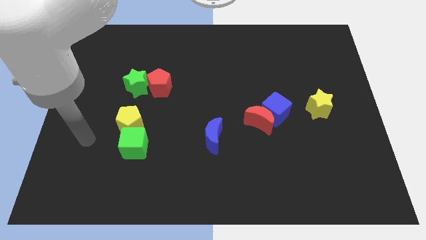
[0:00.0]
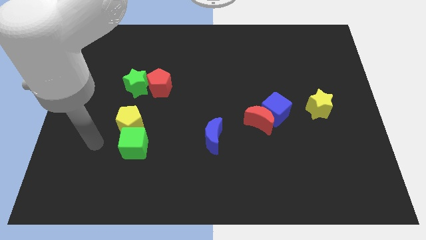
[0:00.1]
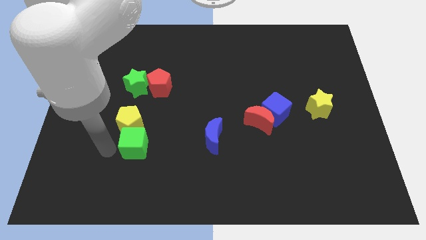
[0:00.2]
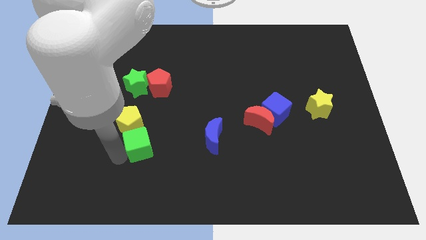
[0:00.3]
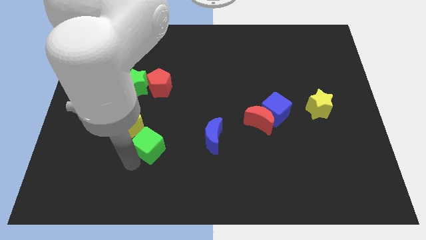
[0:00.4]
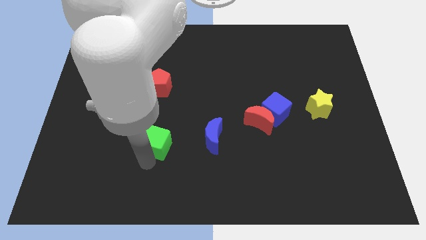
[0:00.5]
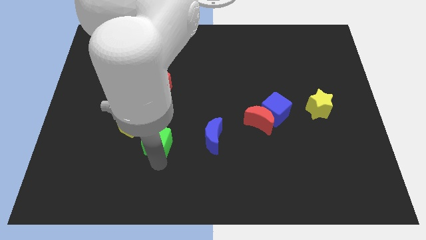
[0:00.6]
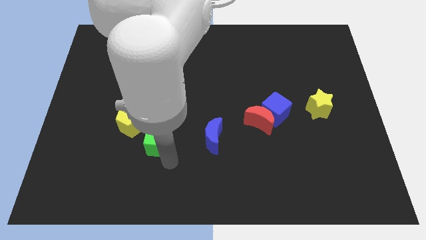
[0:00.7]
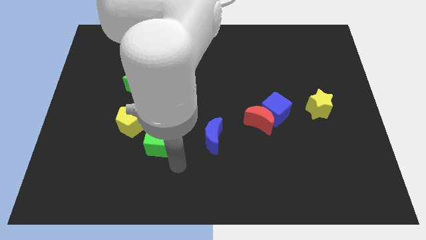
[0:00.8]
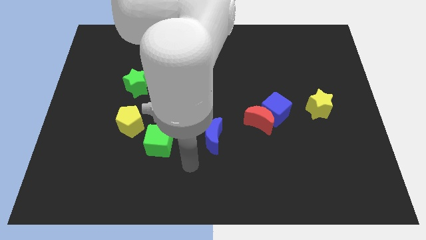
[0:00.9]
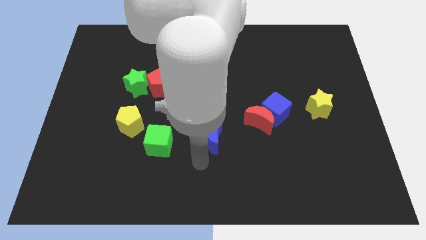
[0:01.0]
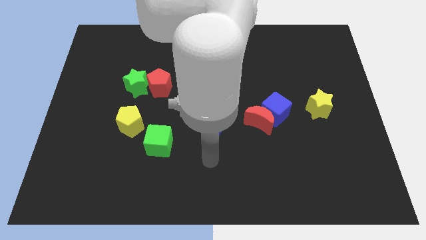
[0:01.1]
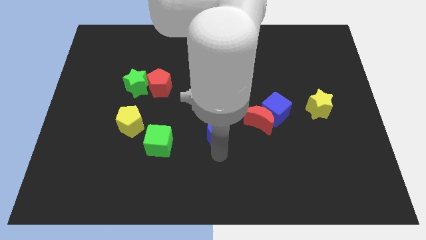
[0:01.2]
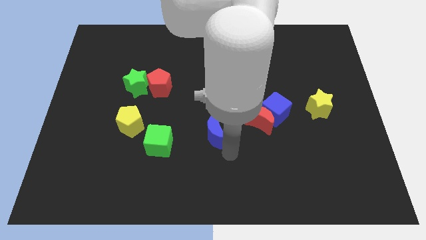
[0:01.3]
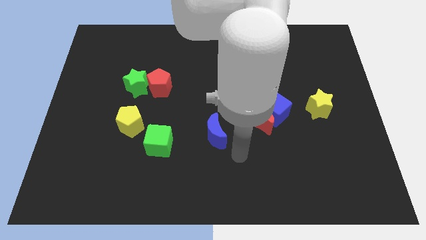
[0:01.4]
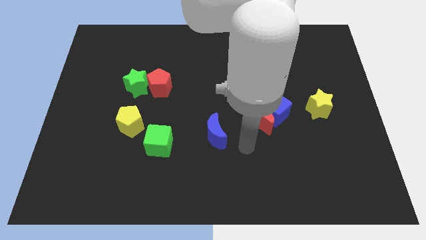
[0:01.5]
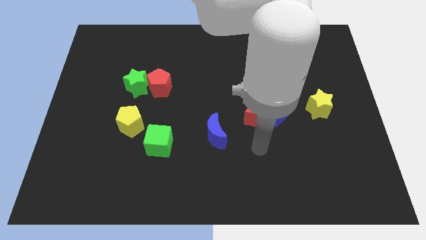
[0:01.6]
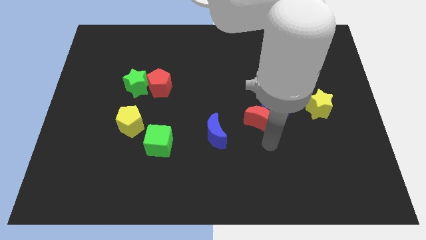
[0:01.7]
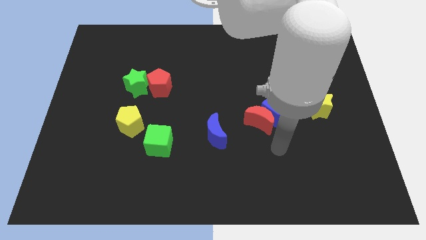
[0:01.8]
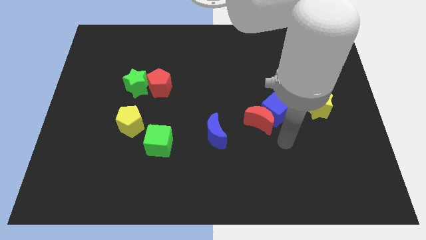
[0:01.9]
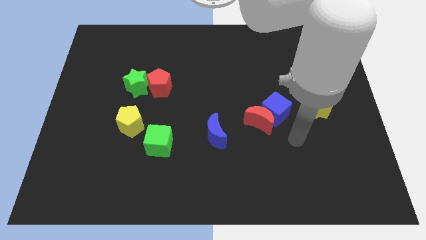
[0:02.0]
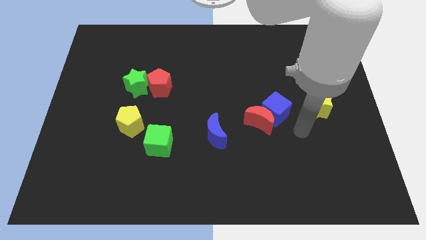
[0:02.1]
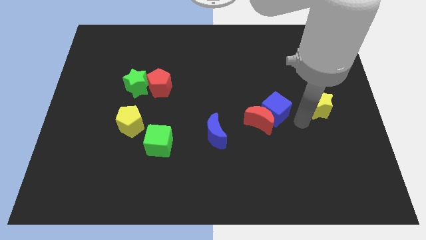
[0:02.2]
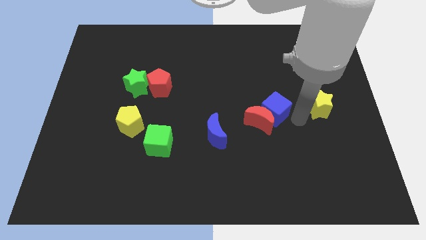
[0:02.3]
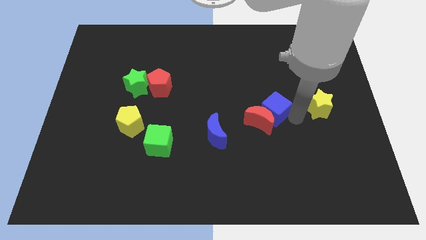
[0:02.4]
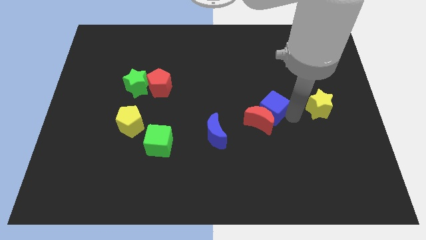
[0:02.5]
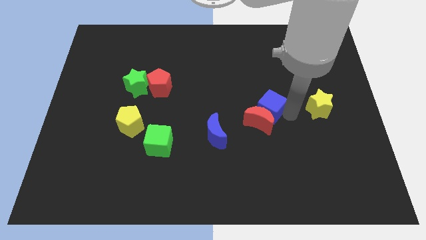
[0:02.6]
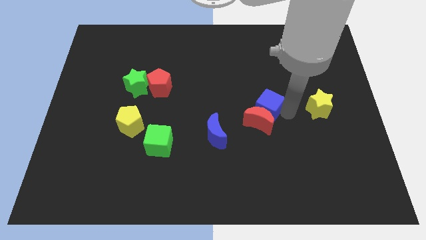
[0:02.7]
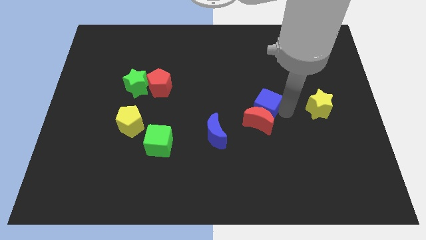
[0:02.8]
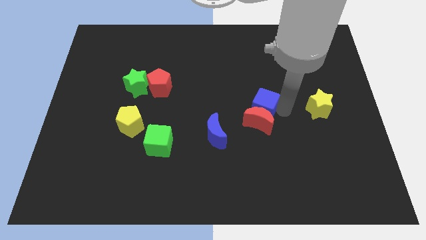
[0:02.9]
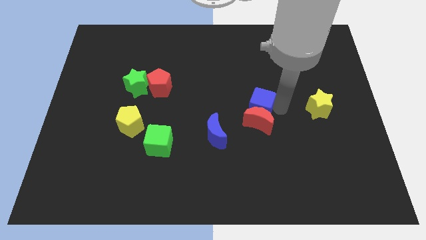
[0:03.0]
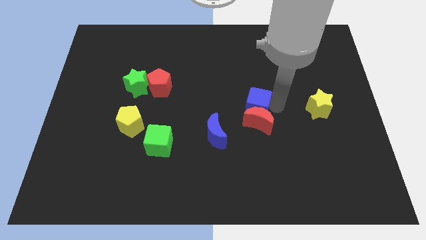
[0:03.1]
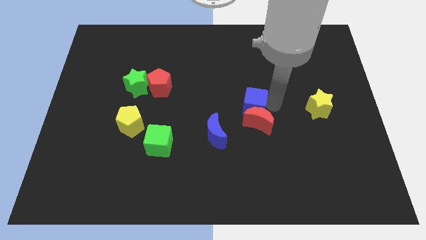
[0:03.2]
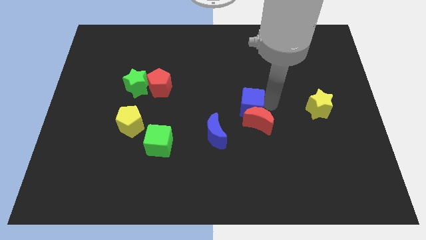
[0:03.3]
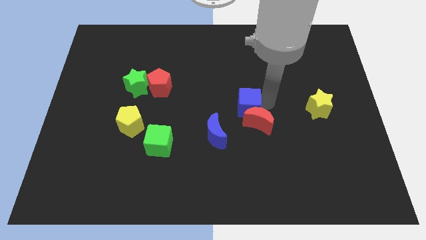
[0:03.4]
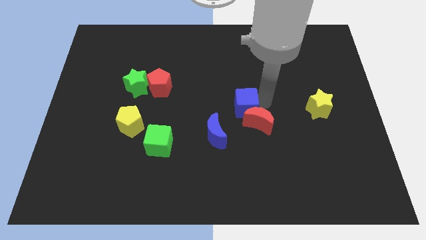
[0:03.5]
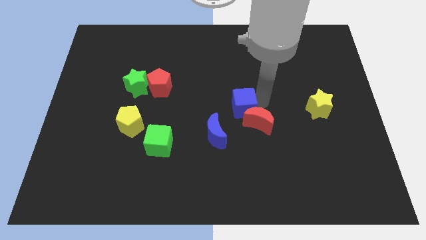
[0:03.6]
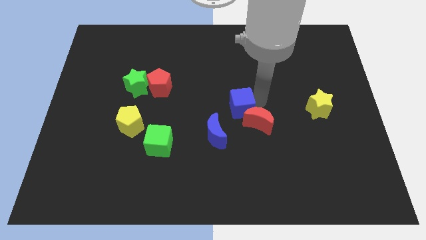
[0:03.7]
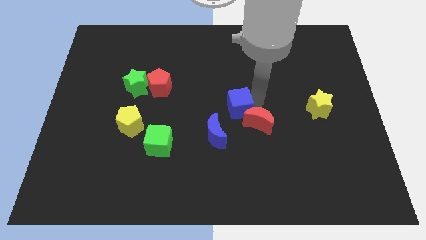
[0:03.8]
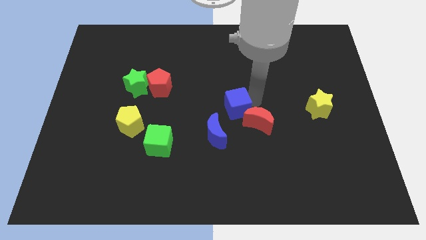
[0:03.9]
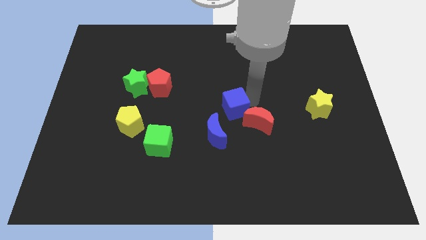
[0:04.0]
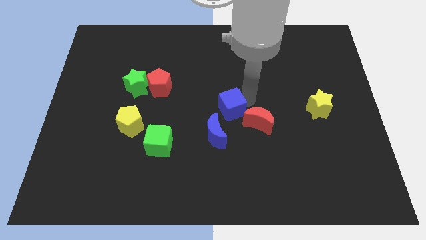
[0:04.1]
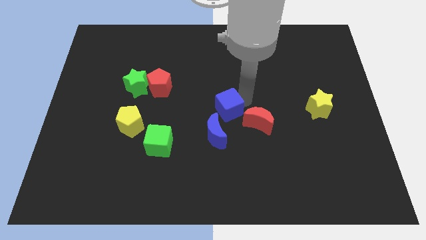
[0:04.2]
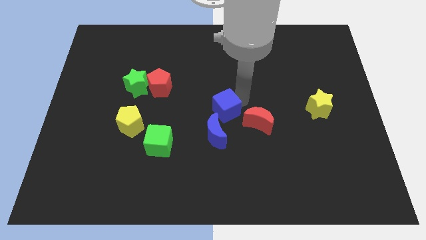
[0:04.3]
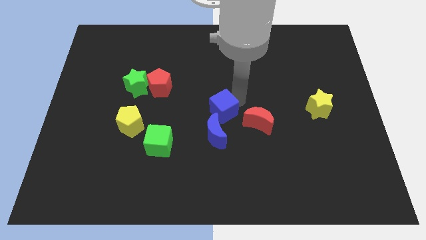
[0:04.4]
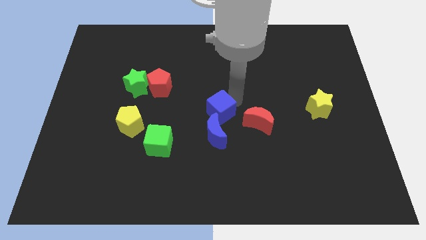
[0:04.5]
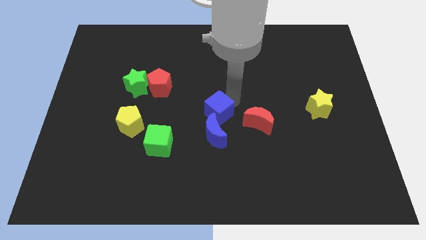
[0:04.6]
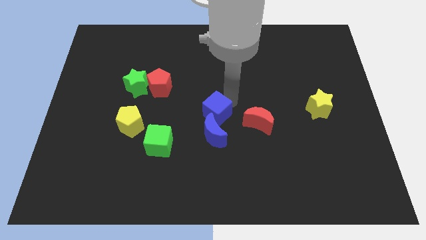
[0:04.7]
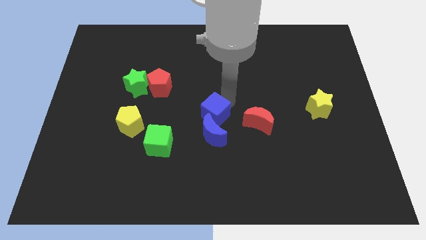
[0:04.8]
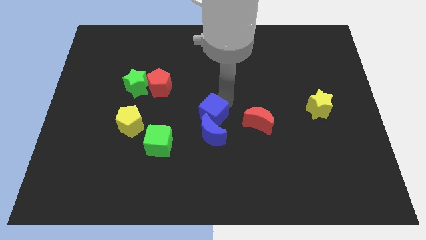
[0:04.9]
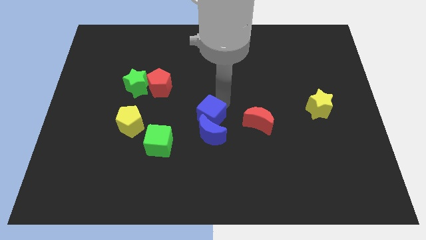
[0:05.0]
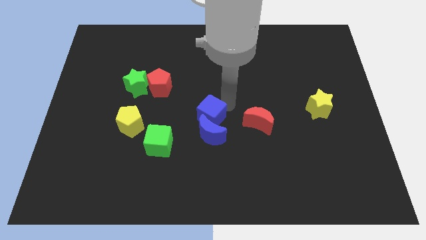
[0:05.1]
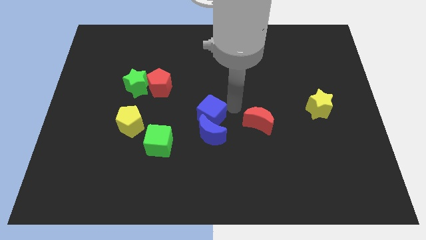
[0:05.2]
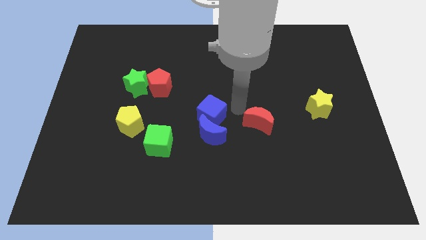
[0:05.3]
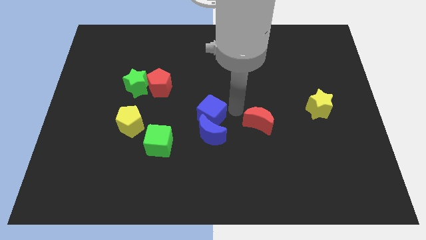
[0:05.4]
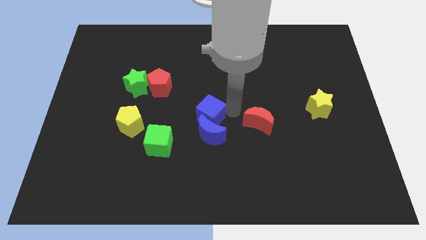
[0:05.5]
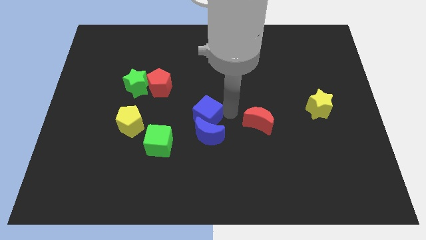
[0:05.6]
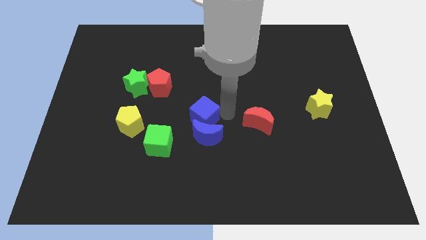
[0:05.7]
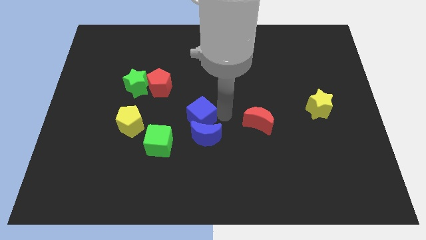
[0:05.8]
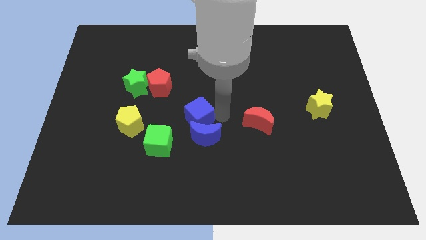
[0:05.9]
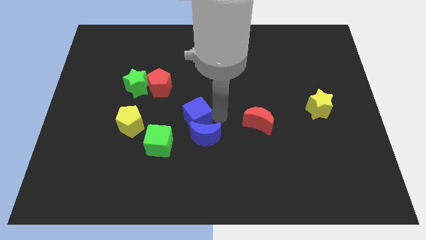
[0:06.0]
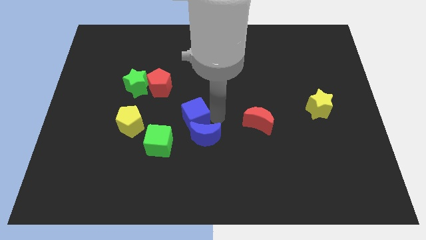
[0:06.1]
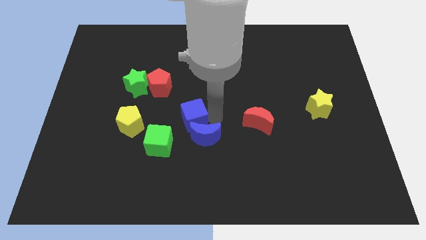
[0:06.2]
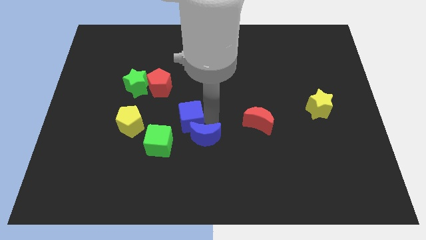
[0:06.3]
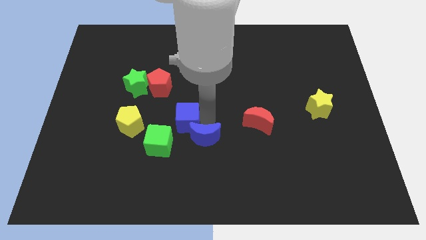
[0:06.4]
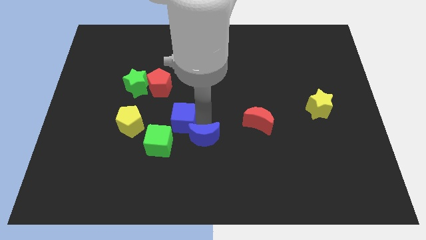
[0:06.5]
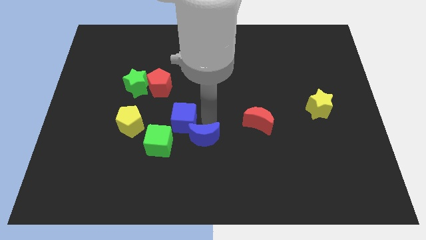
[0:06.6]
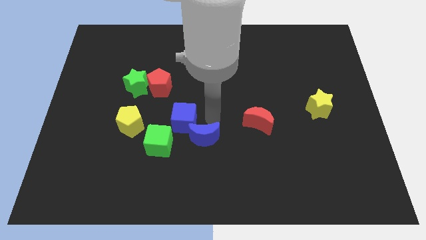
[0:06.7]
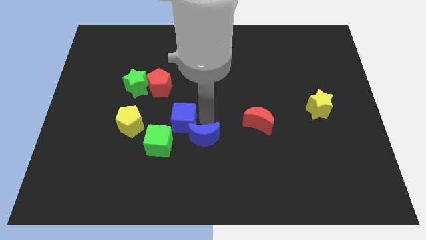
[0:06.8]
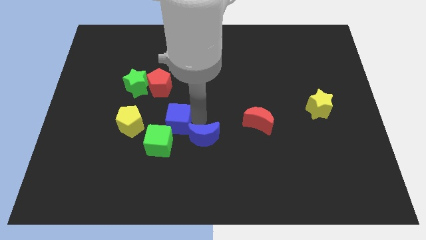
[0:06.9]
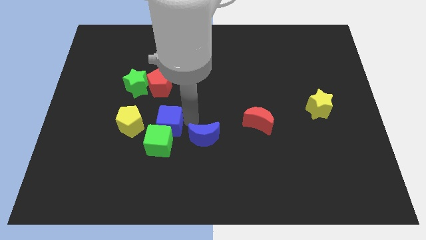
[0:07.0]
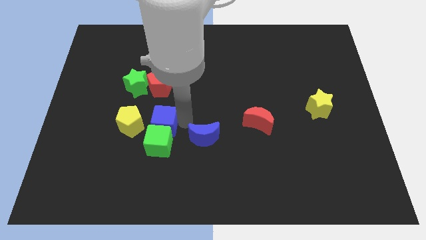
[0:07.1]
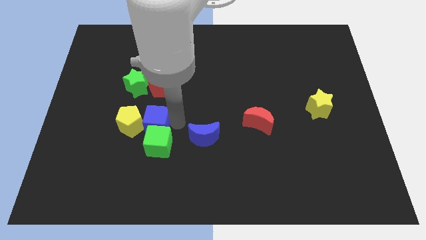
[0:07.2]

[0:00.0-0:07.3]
put the blue cube next to the yellow pentagon
